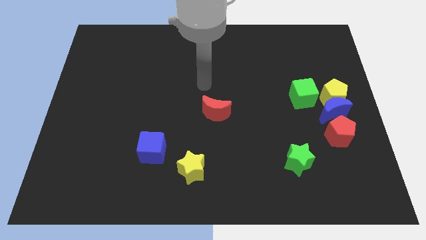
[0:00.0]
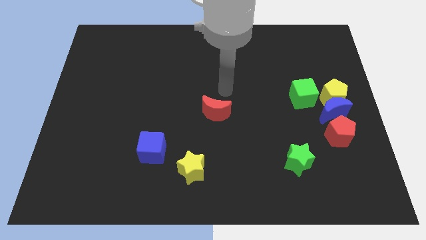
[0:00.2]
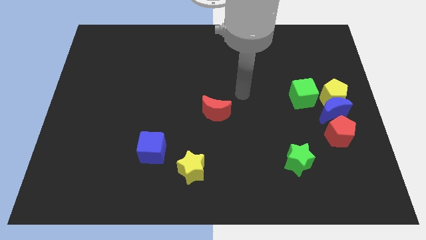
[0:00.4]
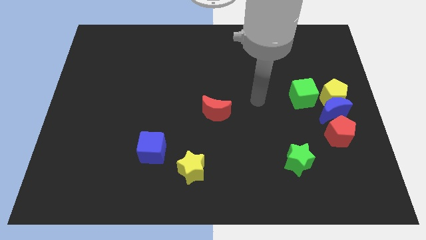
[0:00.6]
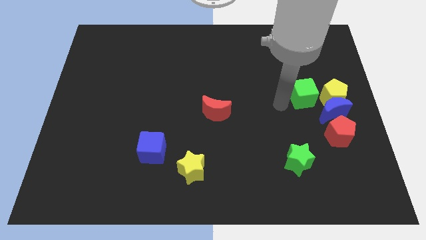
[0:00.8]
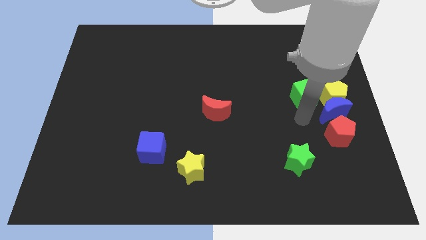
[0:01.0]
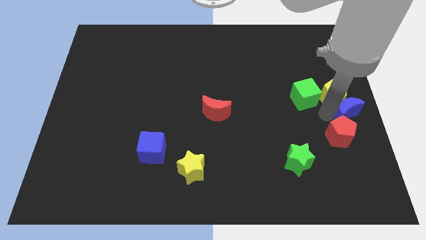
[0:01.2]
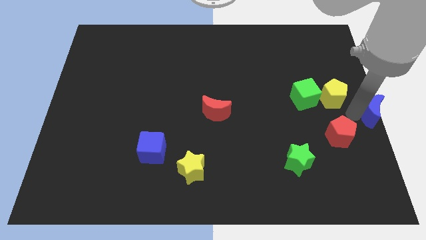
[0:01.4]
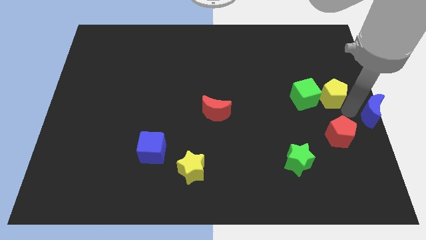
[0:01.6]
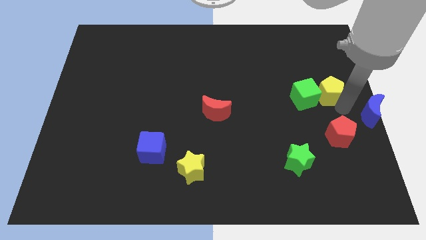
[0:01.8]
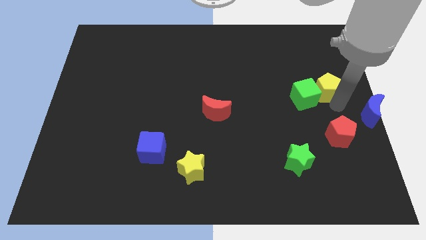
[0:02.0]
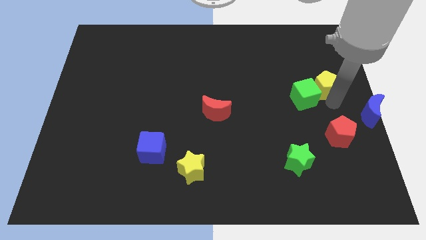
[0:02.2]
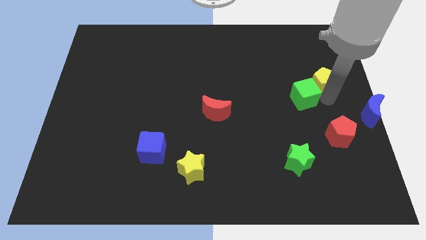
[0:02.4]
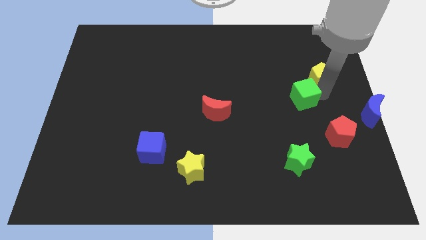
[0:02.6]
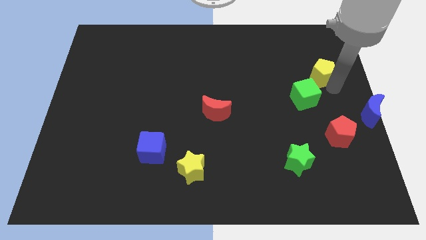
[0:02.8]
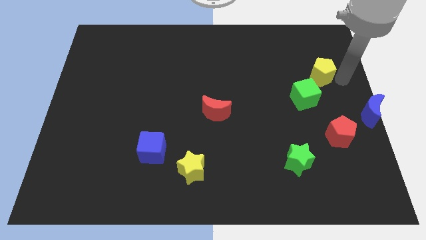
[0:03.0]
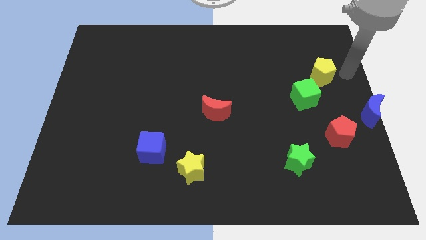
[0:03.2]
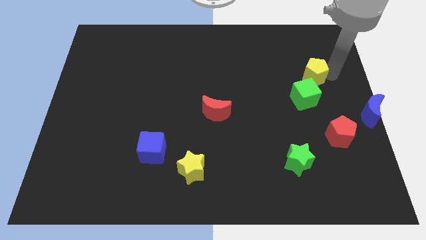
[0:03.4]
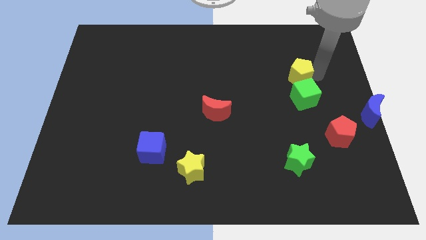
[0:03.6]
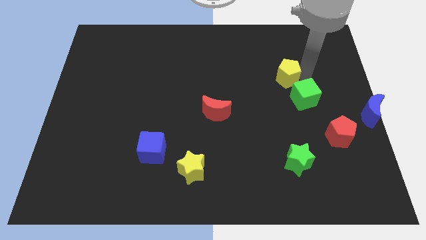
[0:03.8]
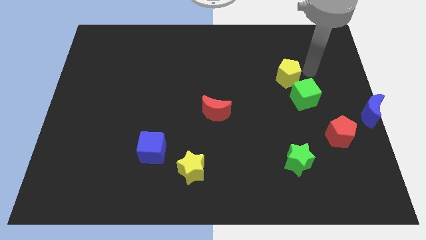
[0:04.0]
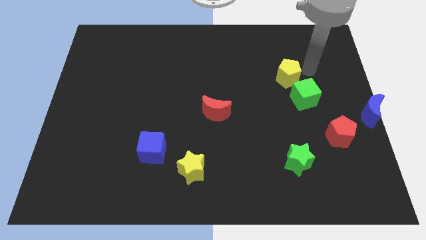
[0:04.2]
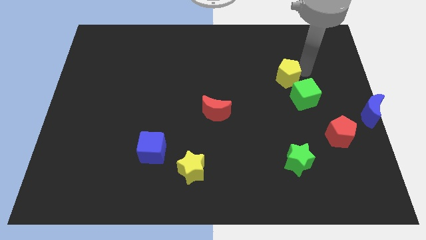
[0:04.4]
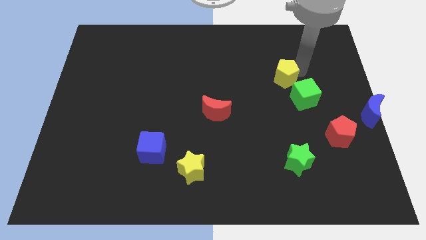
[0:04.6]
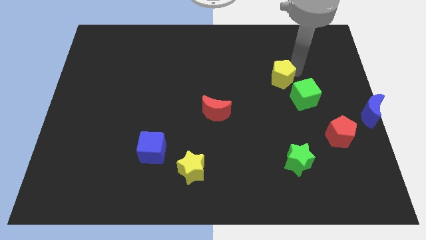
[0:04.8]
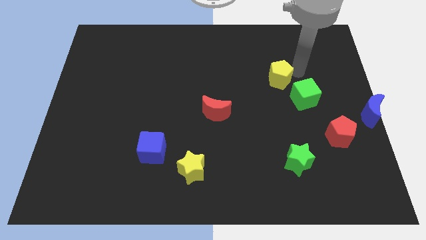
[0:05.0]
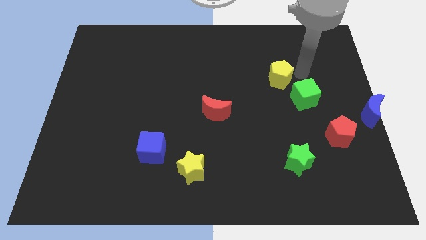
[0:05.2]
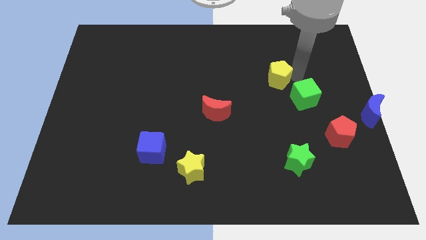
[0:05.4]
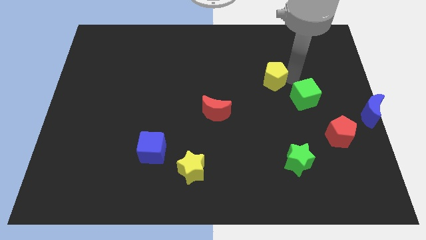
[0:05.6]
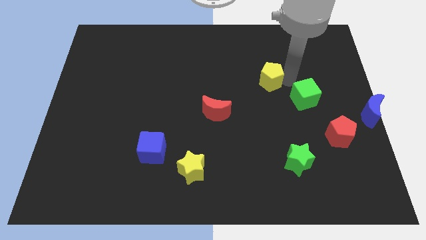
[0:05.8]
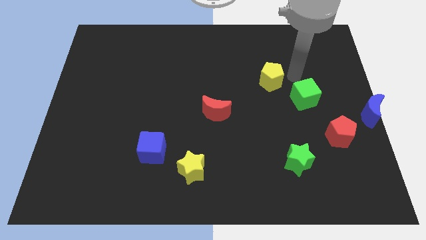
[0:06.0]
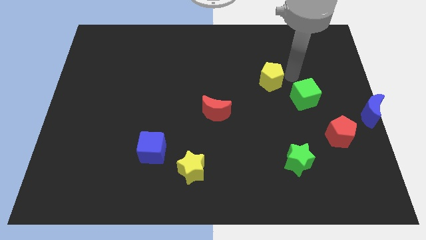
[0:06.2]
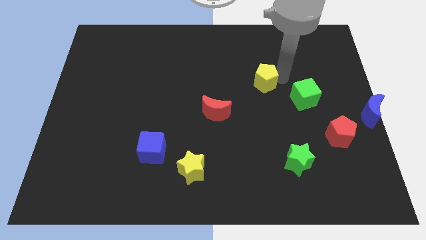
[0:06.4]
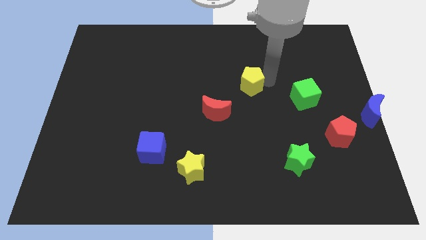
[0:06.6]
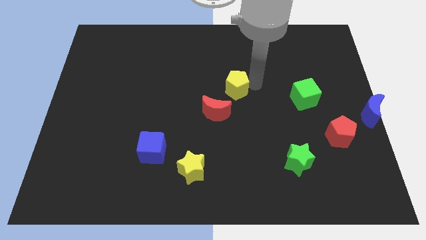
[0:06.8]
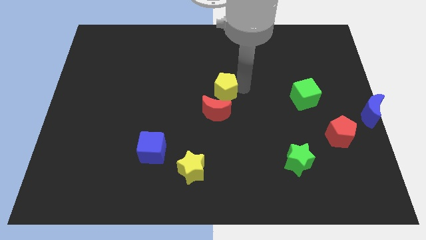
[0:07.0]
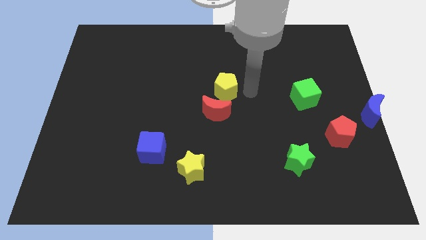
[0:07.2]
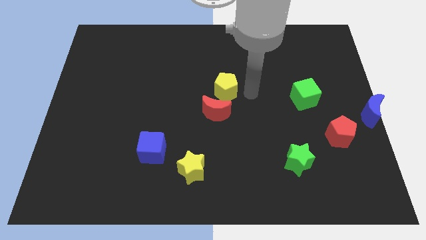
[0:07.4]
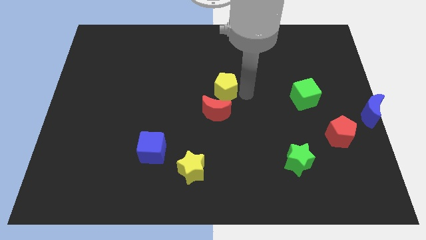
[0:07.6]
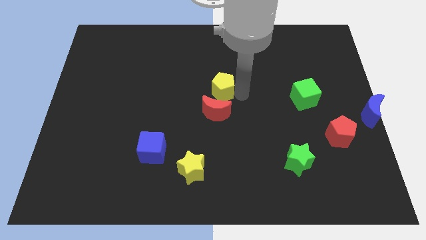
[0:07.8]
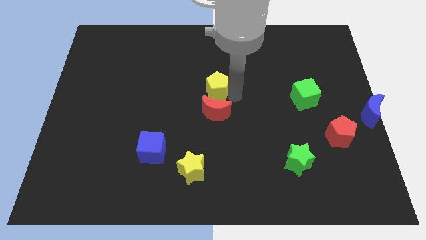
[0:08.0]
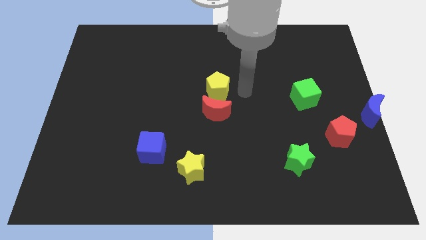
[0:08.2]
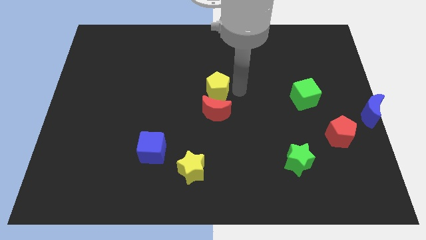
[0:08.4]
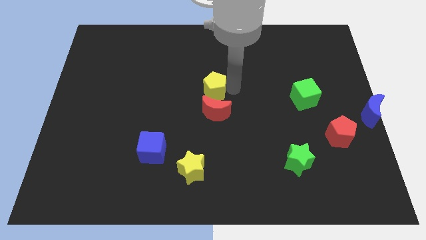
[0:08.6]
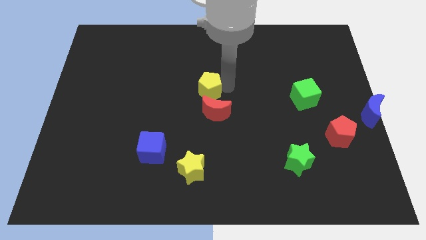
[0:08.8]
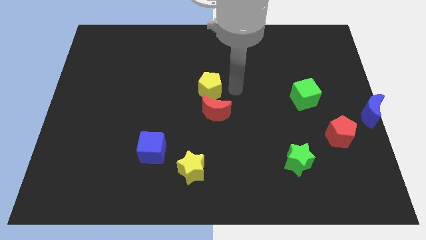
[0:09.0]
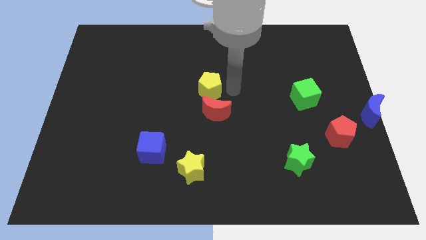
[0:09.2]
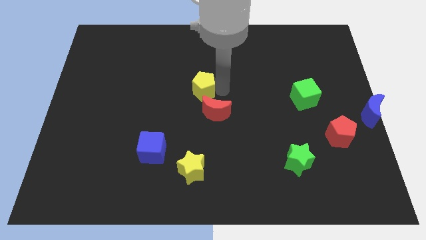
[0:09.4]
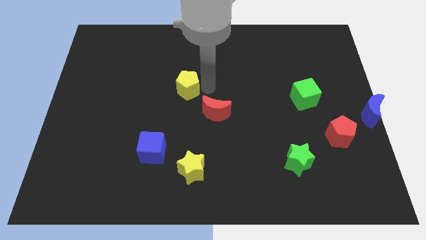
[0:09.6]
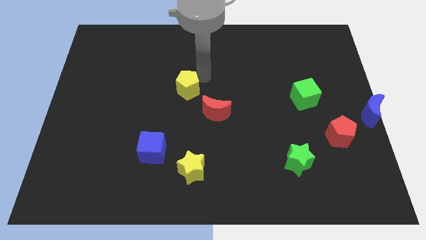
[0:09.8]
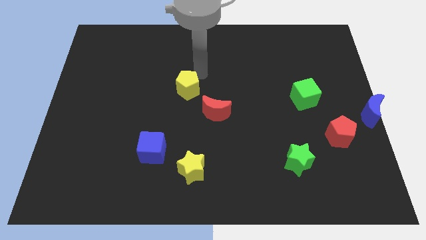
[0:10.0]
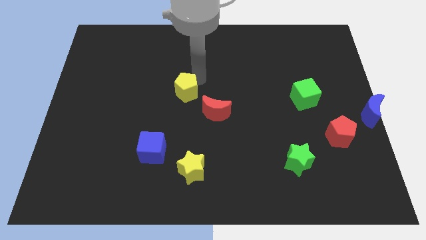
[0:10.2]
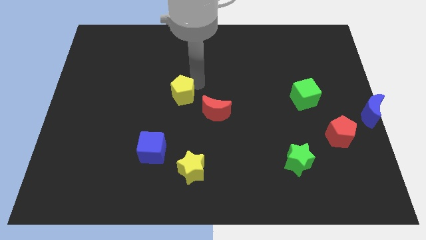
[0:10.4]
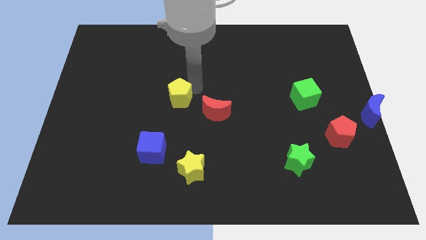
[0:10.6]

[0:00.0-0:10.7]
move the yellow pentagon just left of the red moon

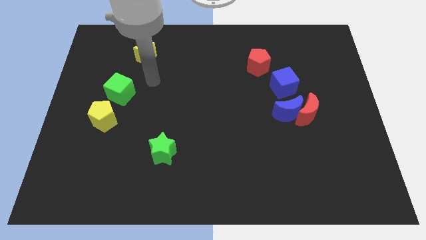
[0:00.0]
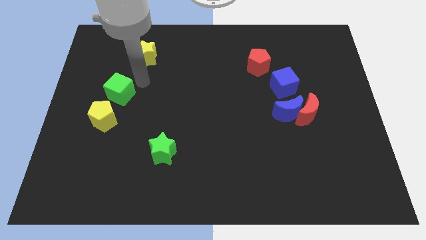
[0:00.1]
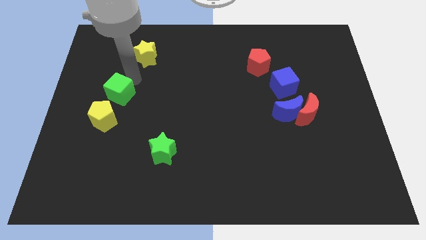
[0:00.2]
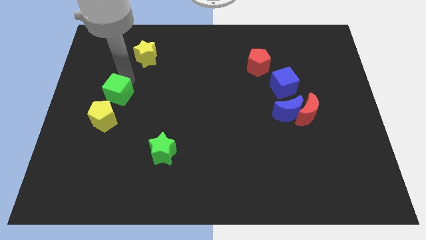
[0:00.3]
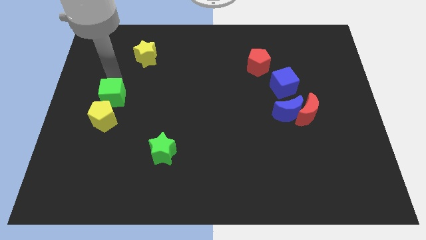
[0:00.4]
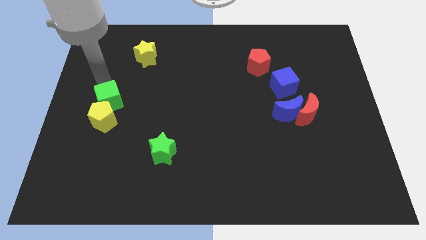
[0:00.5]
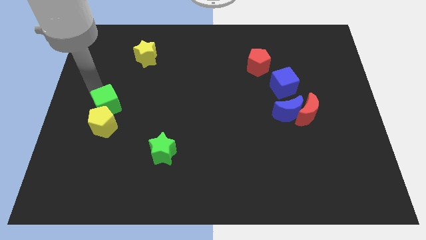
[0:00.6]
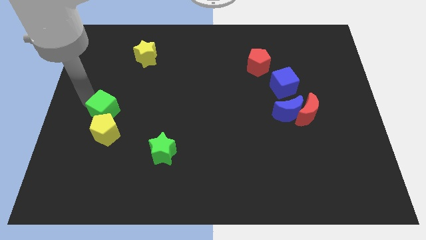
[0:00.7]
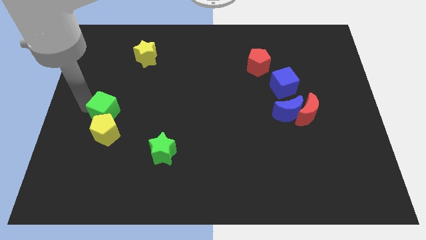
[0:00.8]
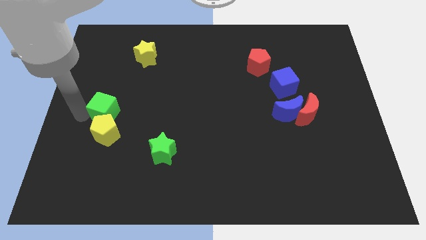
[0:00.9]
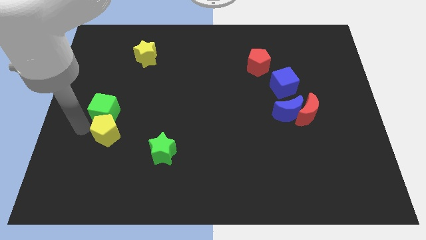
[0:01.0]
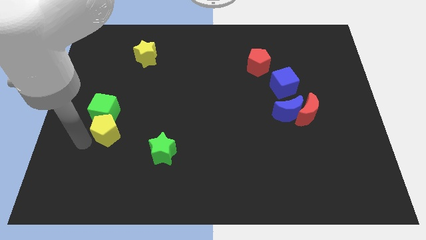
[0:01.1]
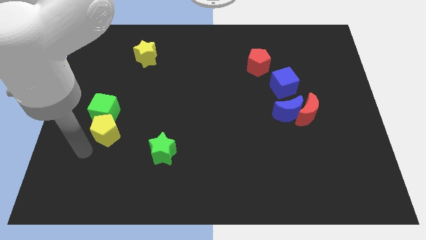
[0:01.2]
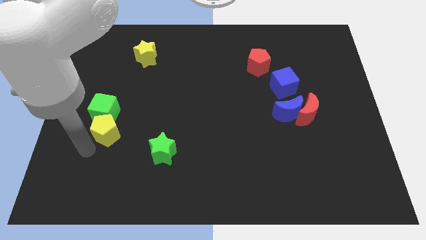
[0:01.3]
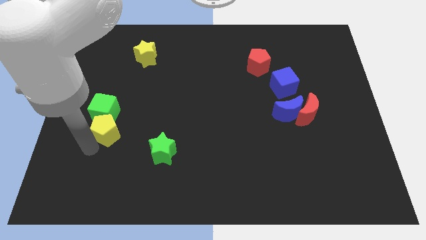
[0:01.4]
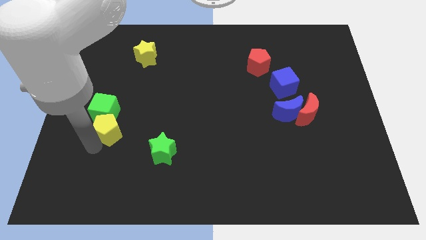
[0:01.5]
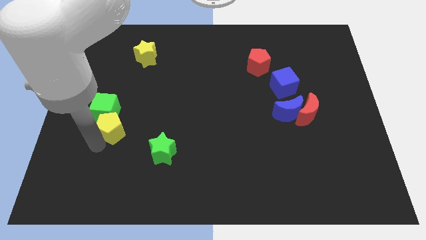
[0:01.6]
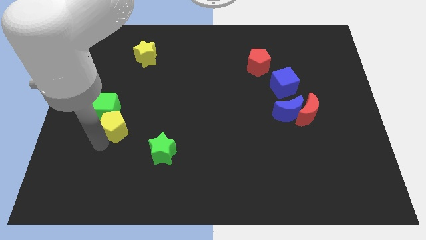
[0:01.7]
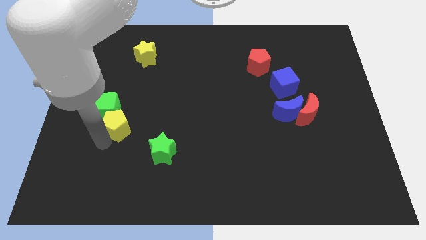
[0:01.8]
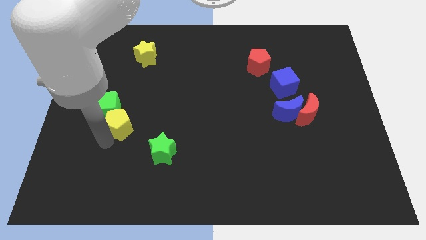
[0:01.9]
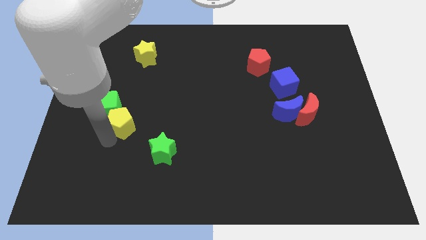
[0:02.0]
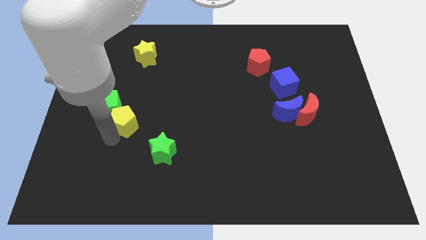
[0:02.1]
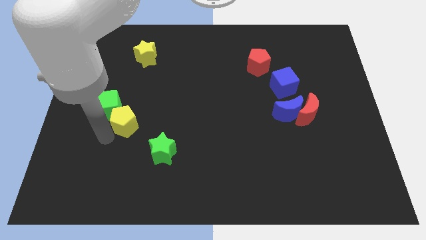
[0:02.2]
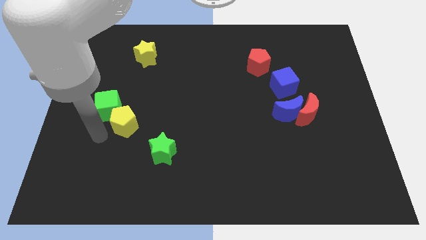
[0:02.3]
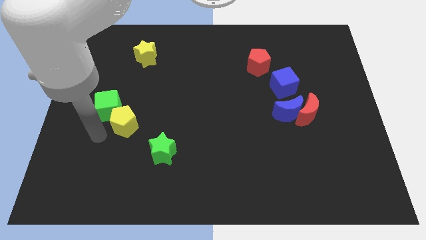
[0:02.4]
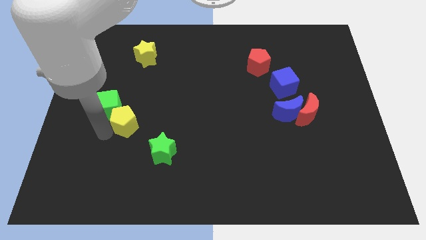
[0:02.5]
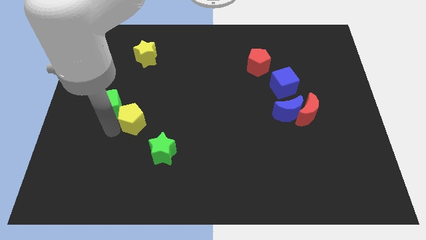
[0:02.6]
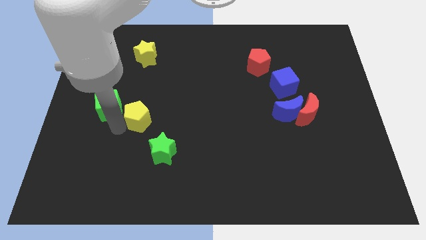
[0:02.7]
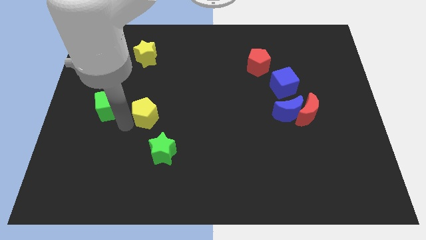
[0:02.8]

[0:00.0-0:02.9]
slide the yellow pentagon above the green star
